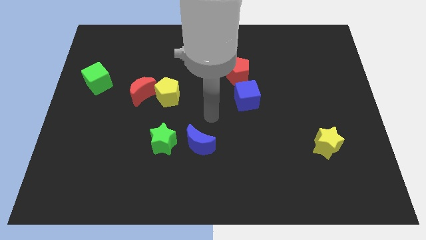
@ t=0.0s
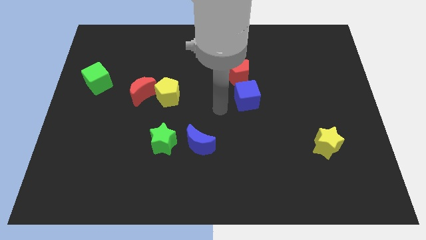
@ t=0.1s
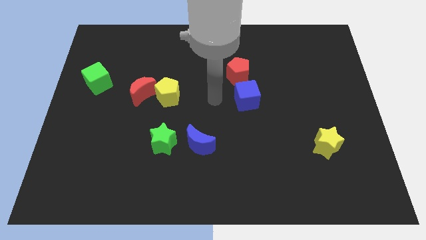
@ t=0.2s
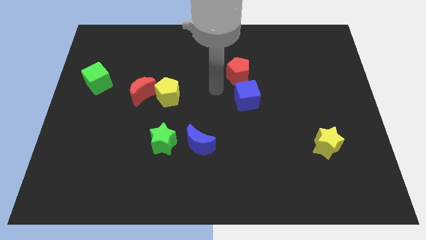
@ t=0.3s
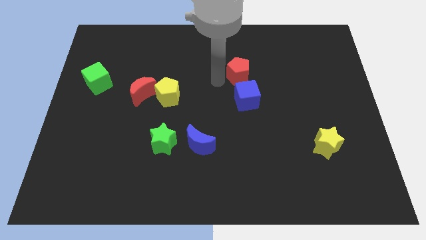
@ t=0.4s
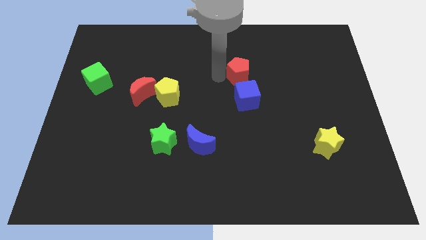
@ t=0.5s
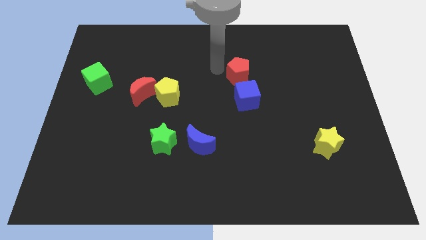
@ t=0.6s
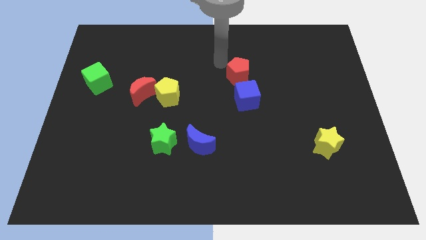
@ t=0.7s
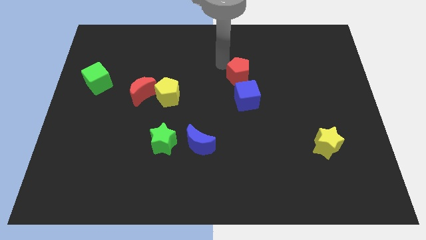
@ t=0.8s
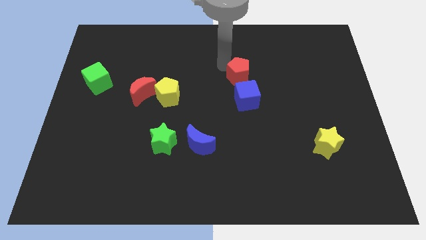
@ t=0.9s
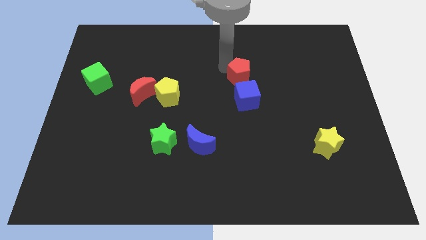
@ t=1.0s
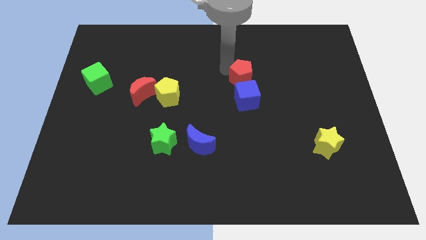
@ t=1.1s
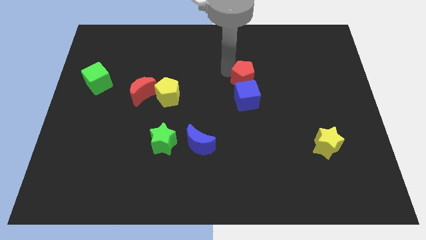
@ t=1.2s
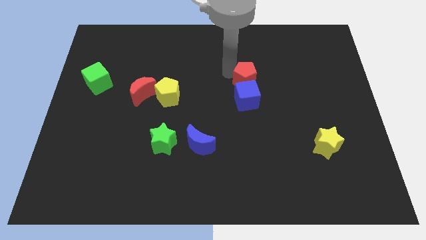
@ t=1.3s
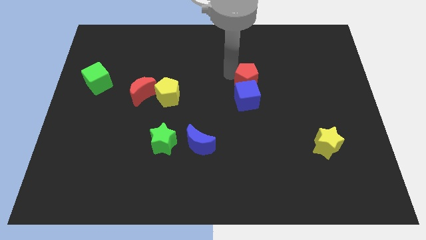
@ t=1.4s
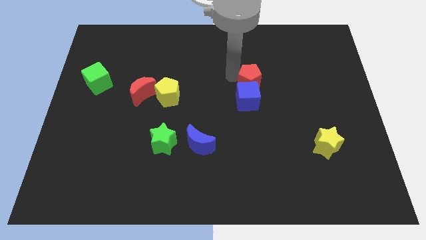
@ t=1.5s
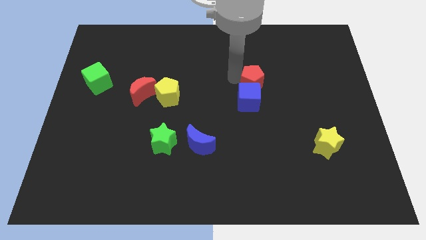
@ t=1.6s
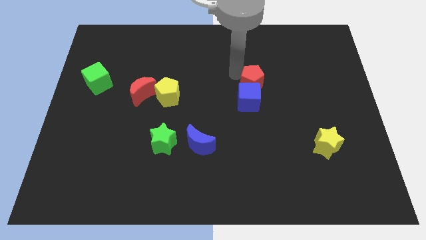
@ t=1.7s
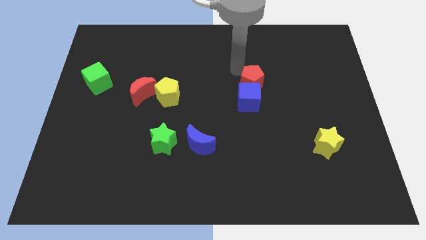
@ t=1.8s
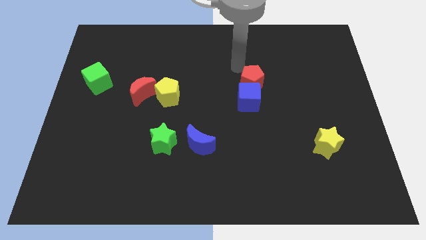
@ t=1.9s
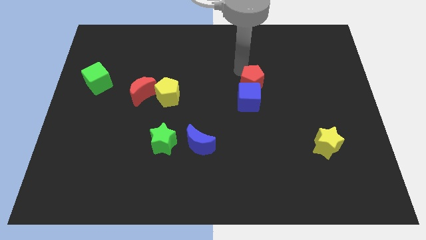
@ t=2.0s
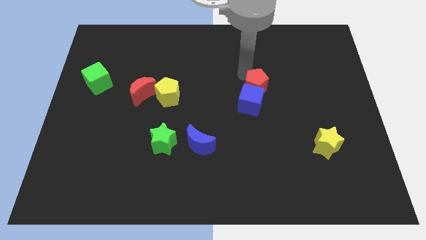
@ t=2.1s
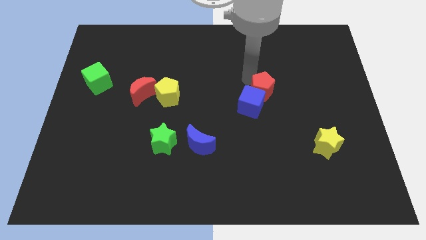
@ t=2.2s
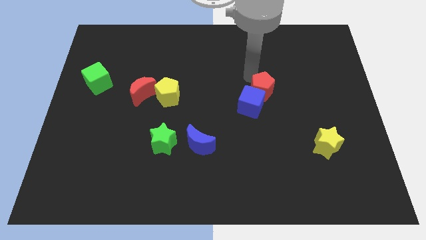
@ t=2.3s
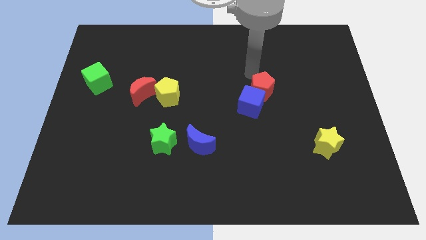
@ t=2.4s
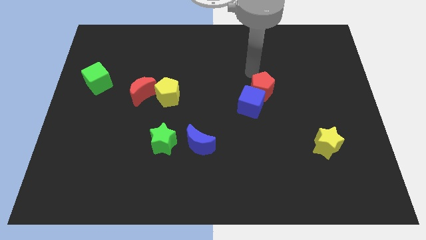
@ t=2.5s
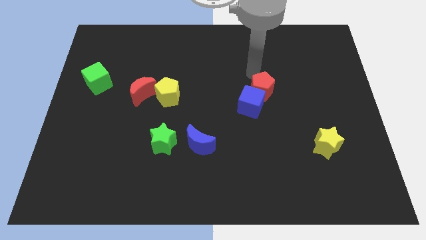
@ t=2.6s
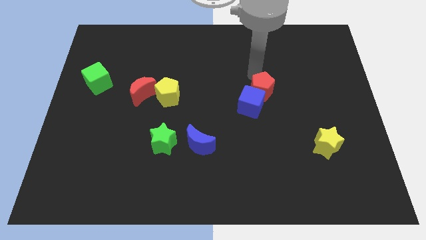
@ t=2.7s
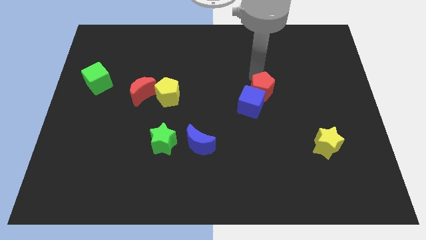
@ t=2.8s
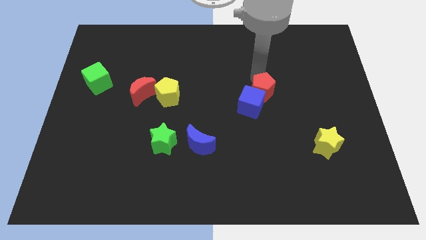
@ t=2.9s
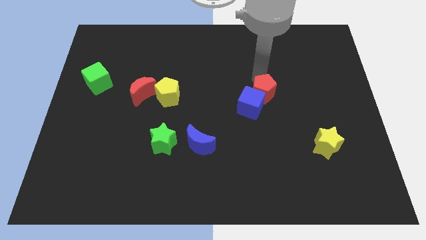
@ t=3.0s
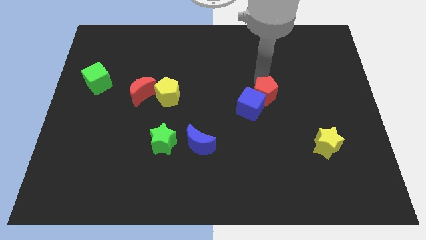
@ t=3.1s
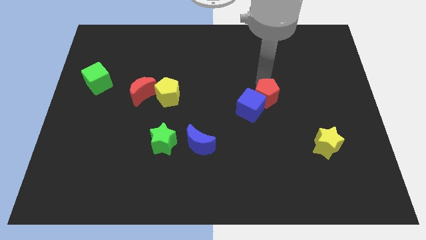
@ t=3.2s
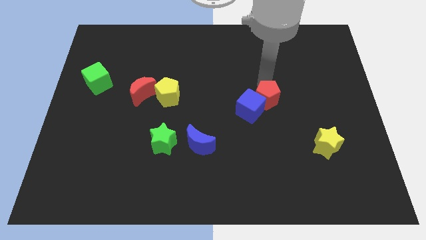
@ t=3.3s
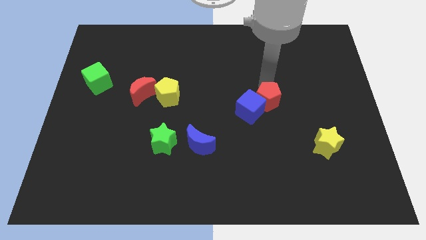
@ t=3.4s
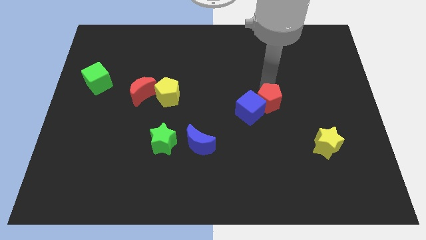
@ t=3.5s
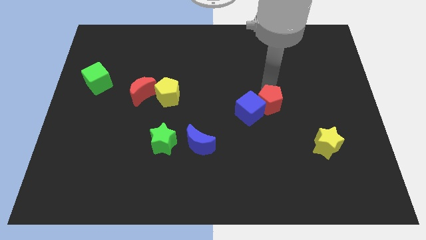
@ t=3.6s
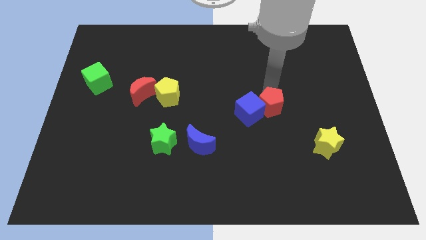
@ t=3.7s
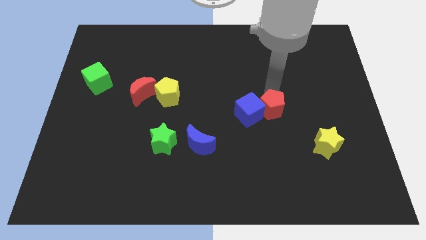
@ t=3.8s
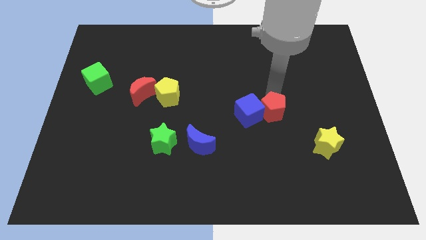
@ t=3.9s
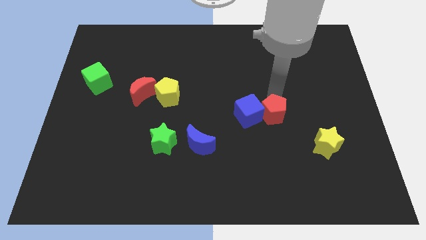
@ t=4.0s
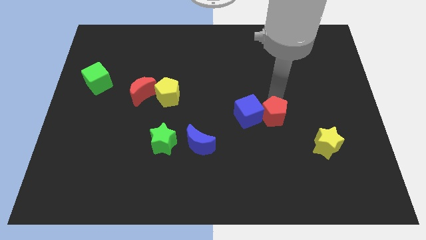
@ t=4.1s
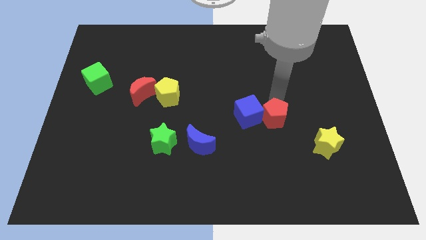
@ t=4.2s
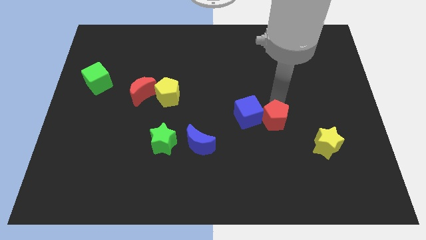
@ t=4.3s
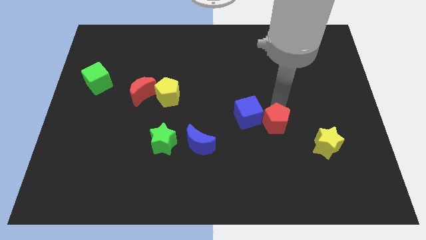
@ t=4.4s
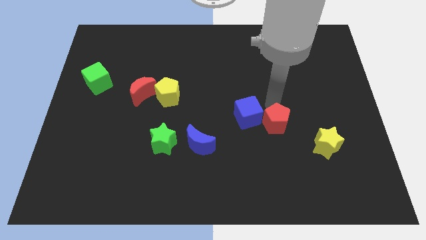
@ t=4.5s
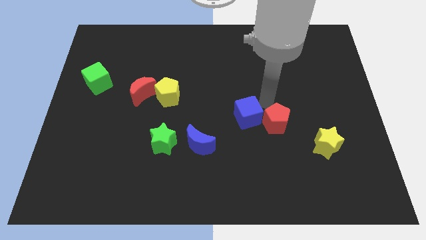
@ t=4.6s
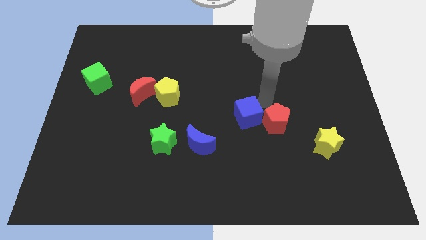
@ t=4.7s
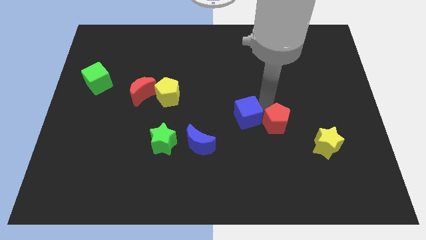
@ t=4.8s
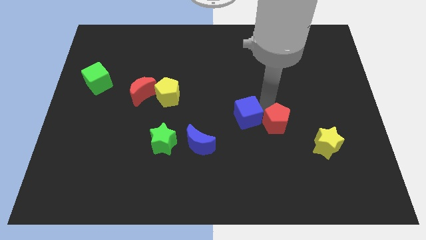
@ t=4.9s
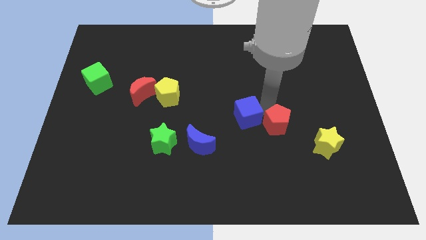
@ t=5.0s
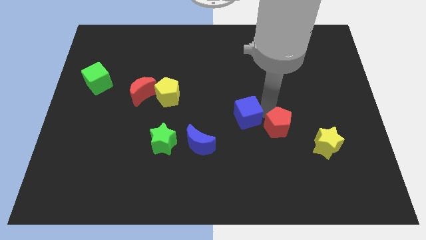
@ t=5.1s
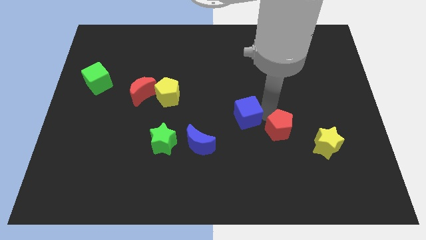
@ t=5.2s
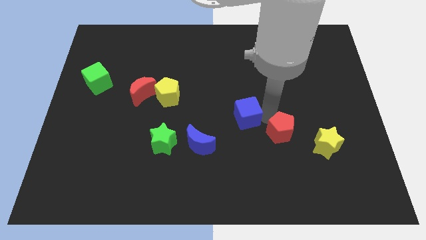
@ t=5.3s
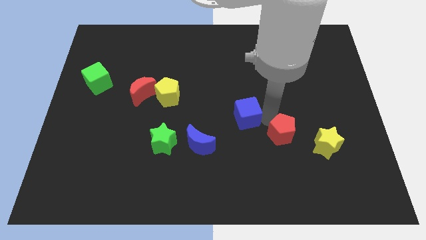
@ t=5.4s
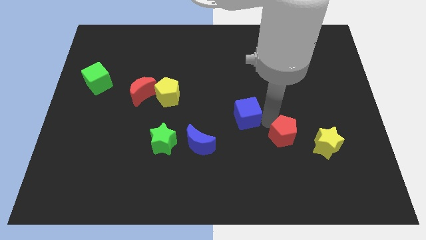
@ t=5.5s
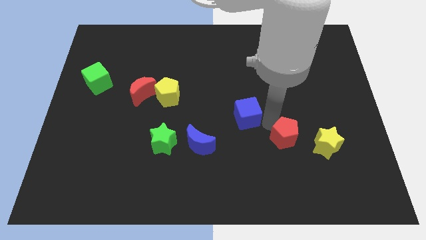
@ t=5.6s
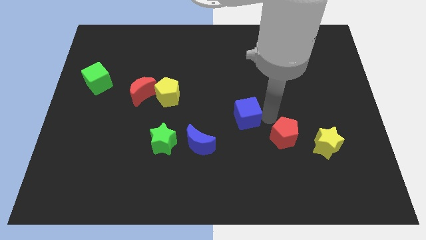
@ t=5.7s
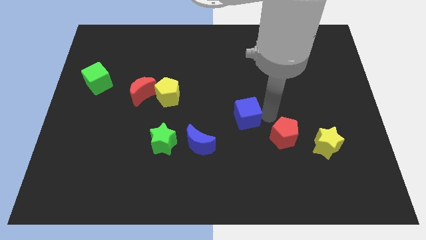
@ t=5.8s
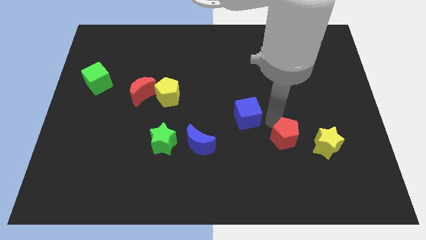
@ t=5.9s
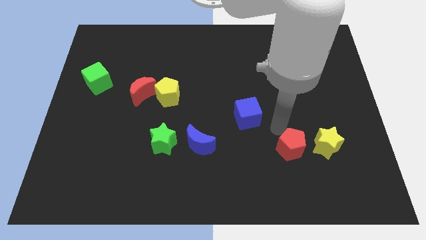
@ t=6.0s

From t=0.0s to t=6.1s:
move the red pentagon to the bottom left of the yellow star
